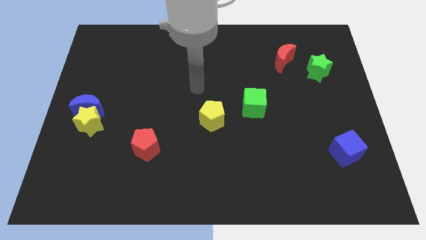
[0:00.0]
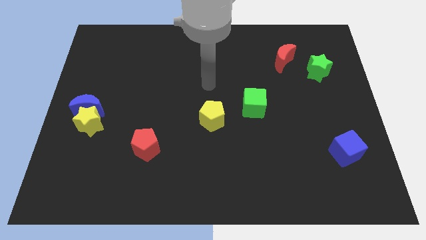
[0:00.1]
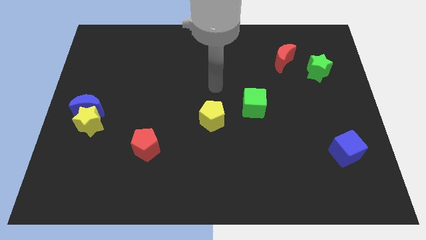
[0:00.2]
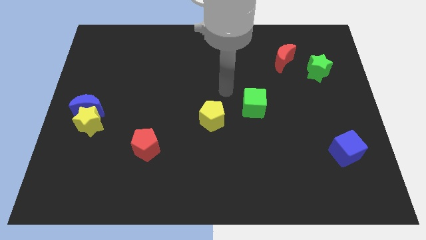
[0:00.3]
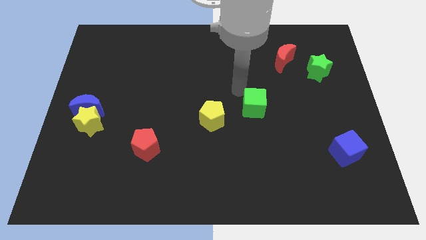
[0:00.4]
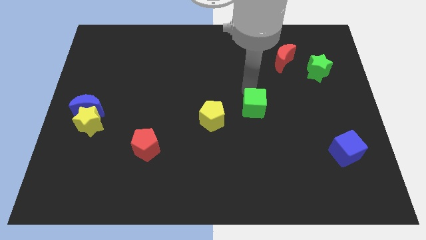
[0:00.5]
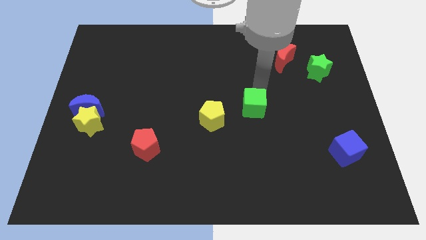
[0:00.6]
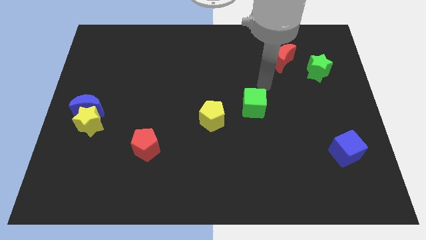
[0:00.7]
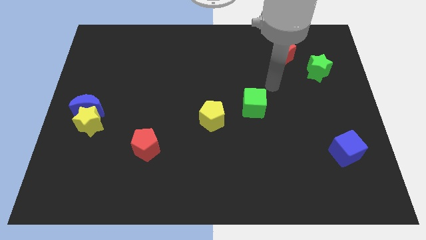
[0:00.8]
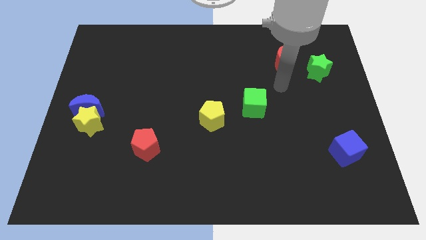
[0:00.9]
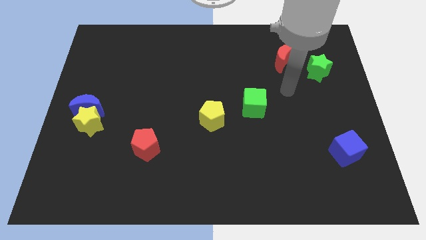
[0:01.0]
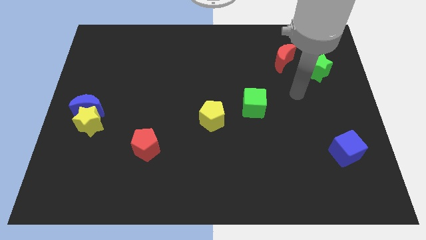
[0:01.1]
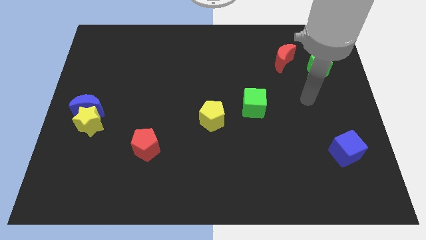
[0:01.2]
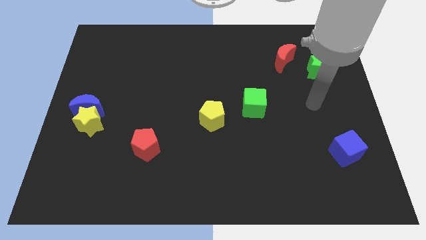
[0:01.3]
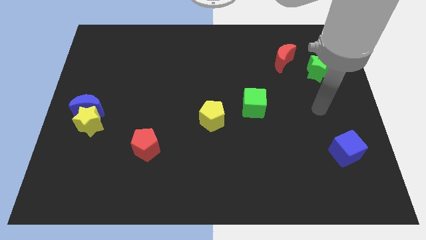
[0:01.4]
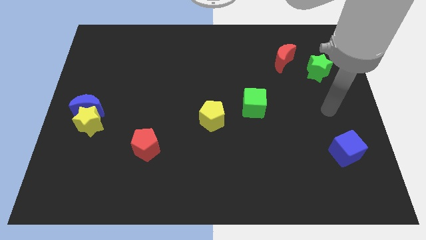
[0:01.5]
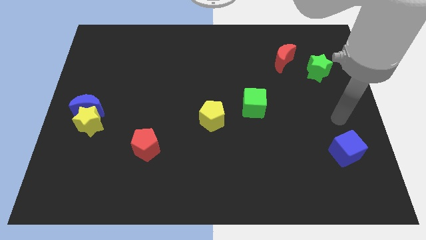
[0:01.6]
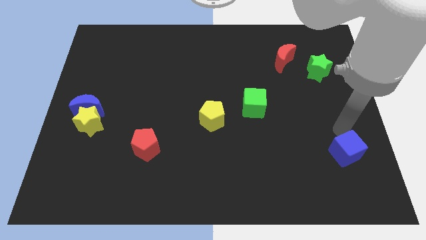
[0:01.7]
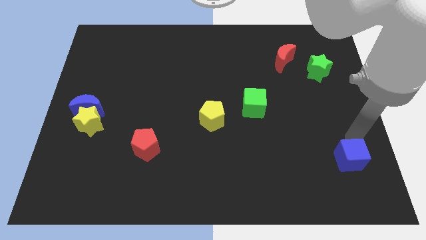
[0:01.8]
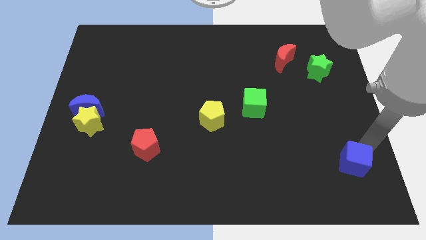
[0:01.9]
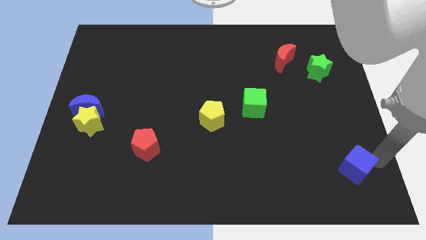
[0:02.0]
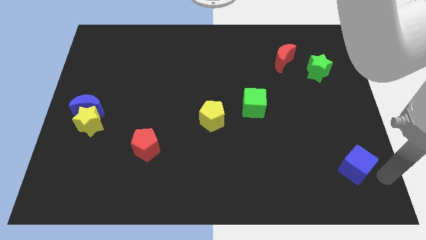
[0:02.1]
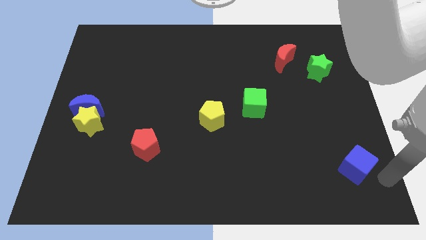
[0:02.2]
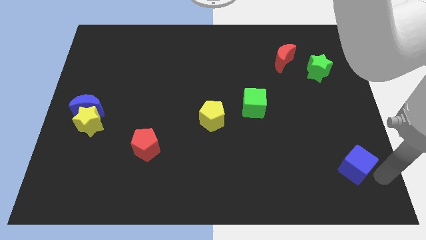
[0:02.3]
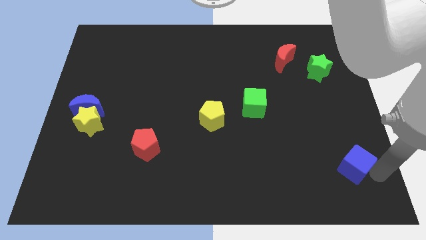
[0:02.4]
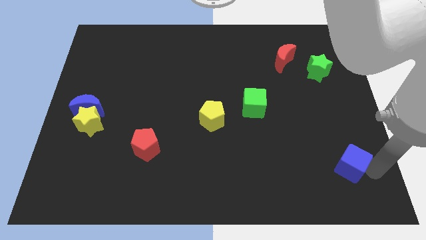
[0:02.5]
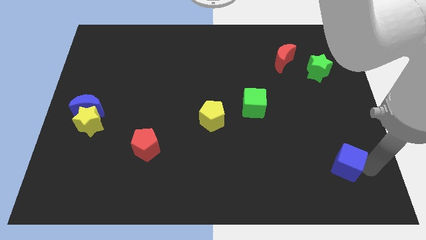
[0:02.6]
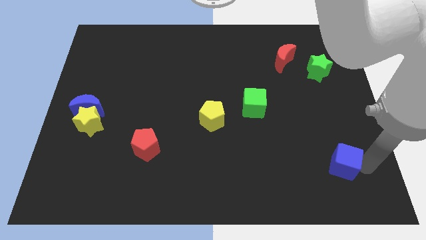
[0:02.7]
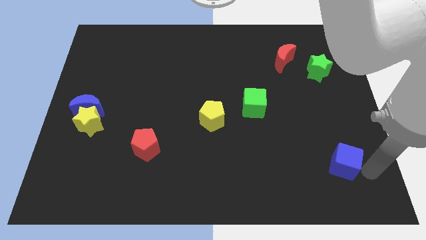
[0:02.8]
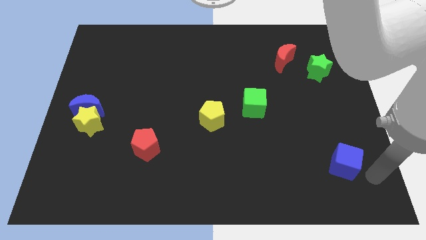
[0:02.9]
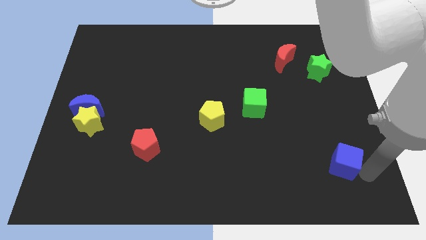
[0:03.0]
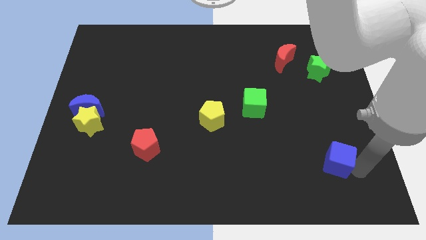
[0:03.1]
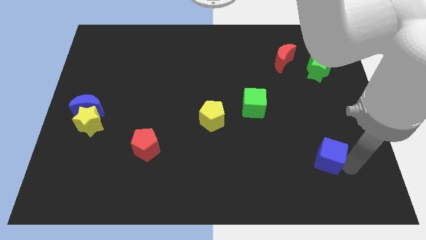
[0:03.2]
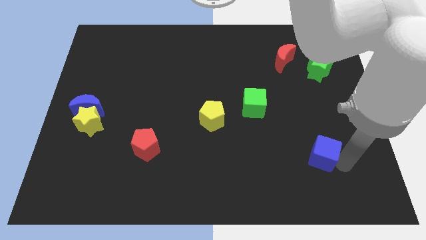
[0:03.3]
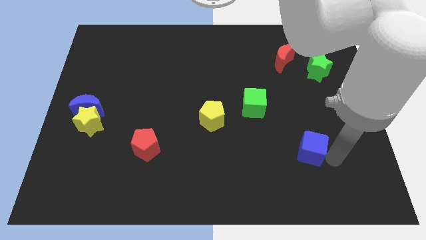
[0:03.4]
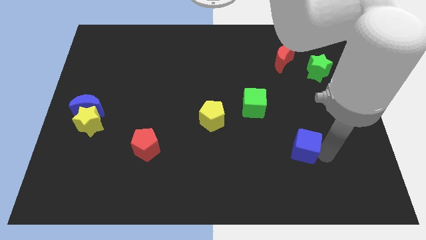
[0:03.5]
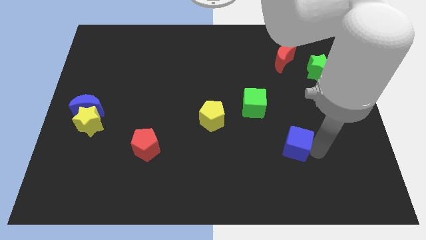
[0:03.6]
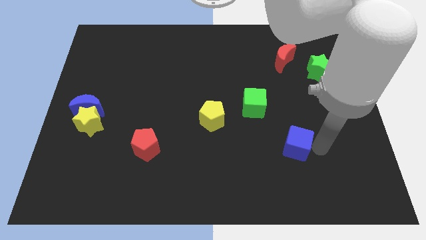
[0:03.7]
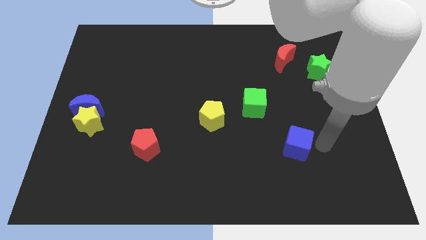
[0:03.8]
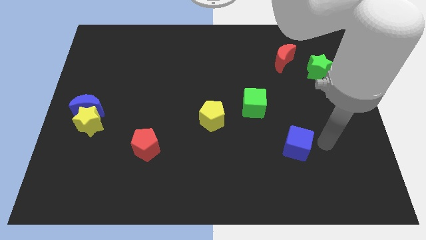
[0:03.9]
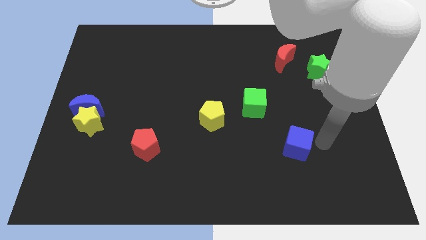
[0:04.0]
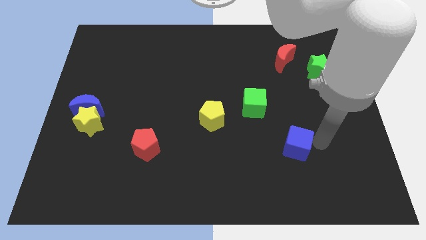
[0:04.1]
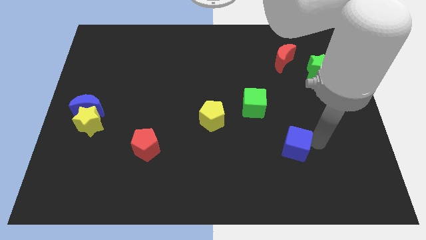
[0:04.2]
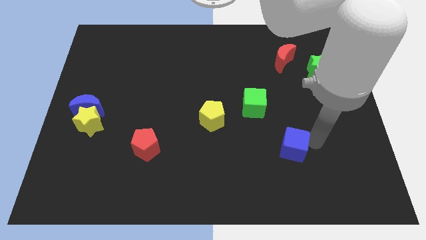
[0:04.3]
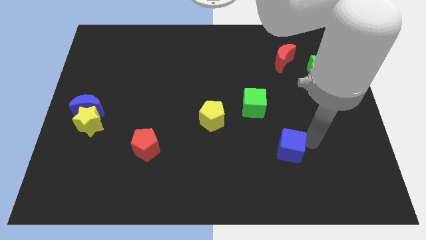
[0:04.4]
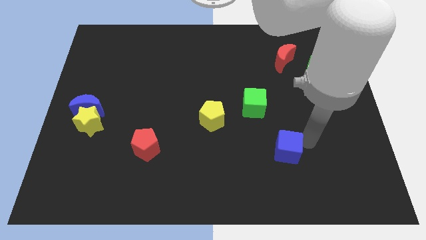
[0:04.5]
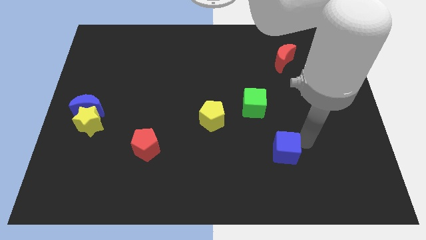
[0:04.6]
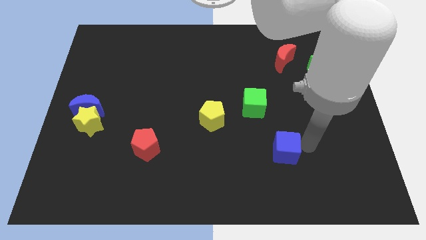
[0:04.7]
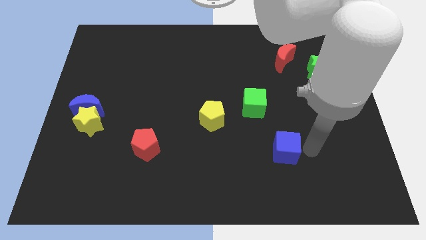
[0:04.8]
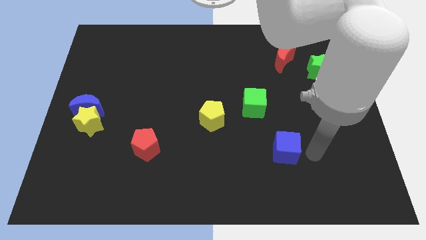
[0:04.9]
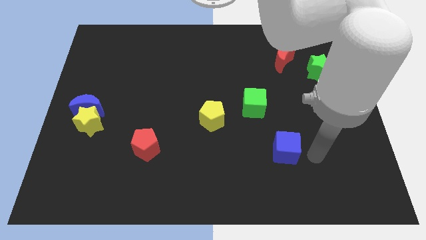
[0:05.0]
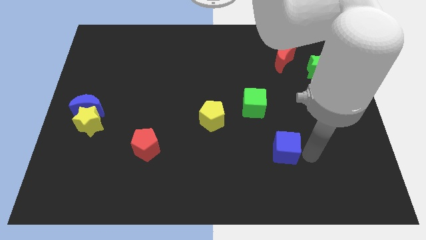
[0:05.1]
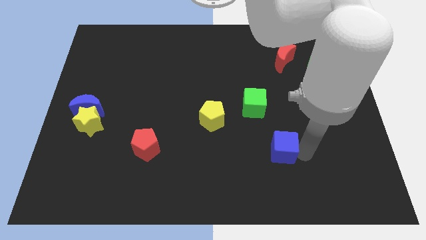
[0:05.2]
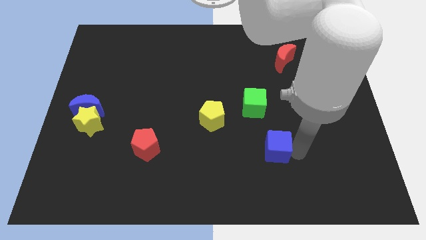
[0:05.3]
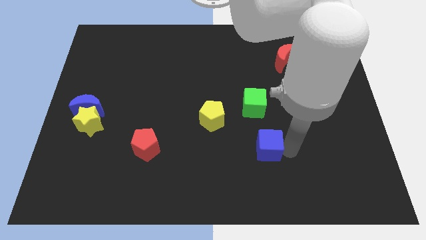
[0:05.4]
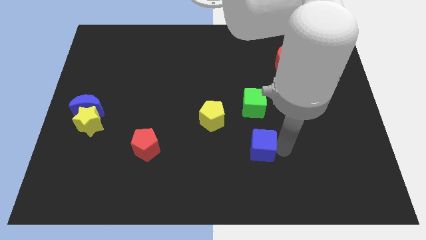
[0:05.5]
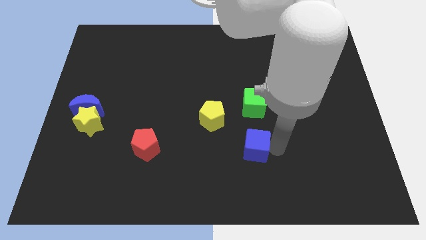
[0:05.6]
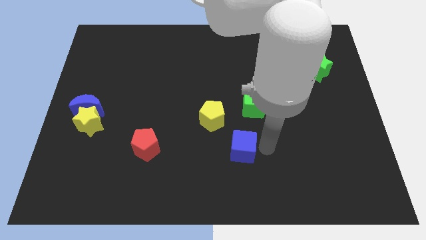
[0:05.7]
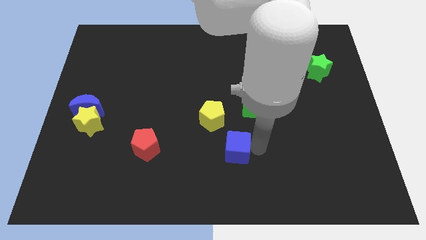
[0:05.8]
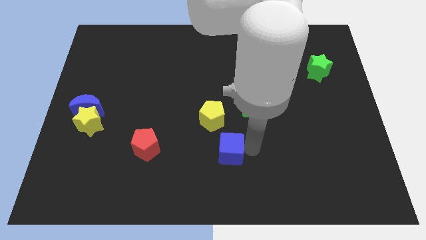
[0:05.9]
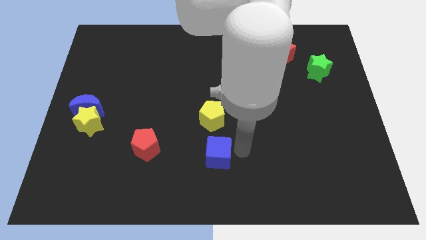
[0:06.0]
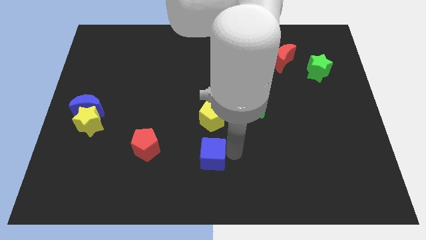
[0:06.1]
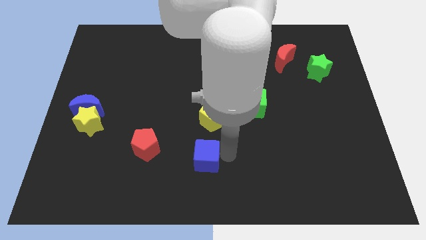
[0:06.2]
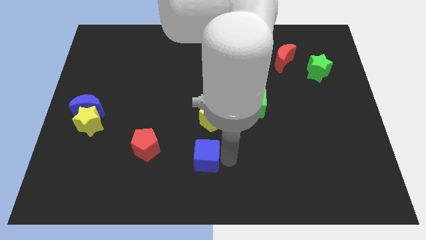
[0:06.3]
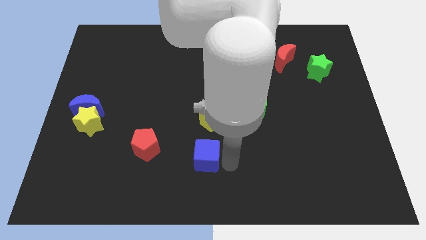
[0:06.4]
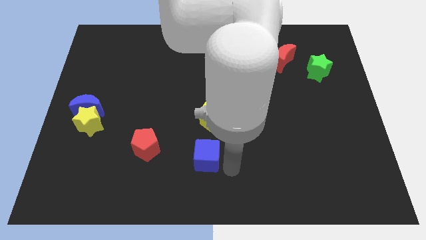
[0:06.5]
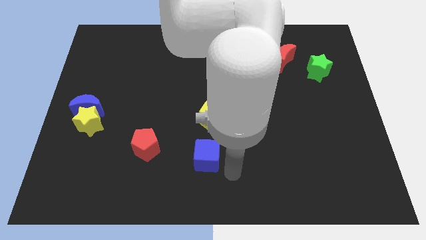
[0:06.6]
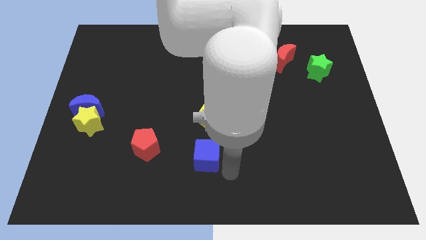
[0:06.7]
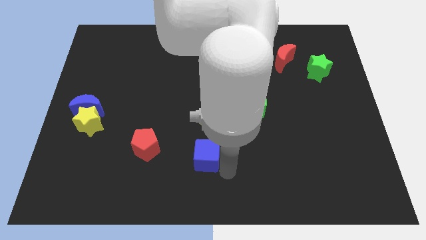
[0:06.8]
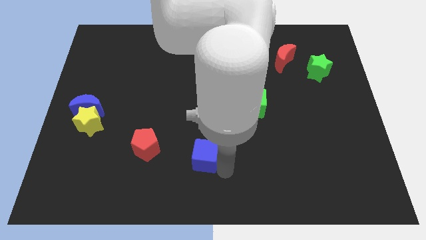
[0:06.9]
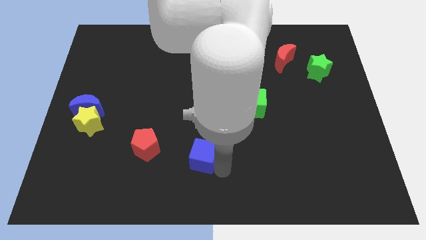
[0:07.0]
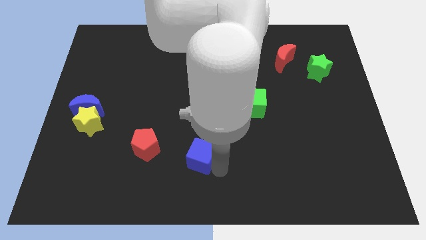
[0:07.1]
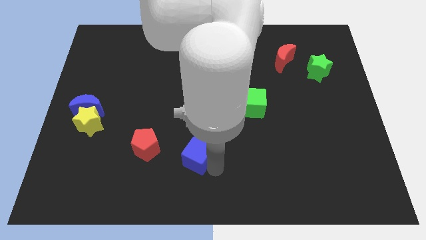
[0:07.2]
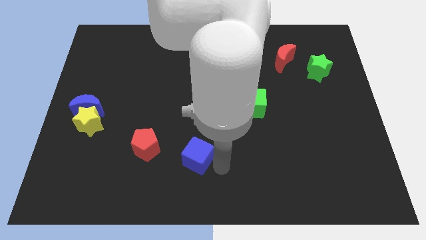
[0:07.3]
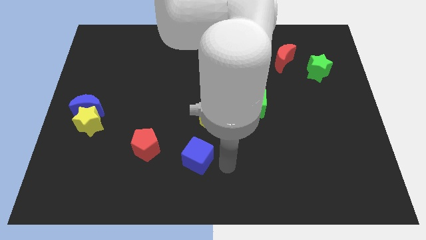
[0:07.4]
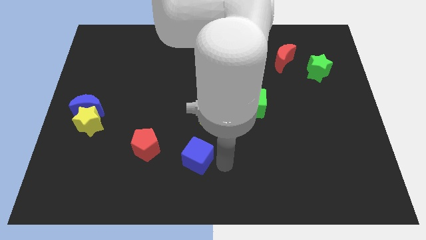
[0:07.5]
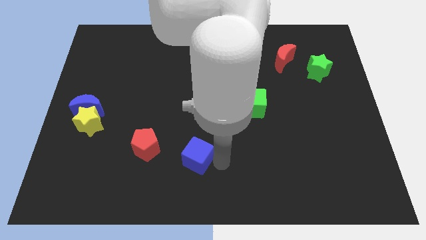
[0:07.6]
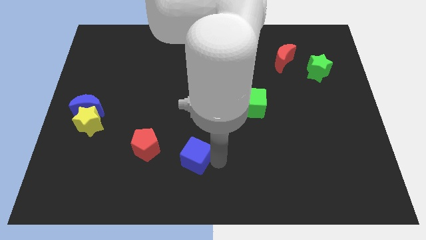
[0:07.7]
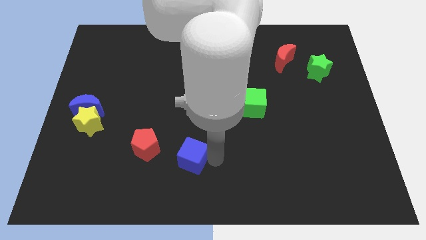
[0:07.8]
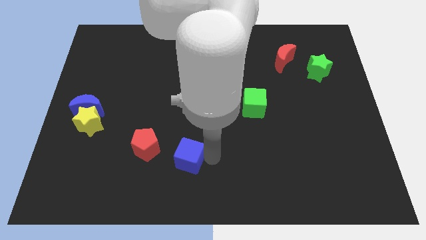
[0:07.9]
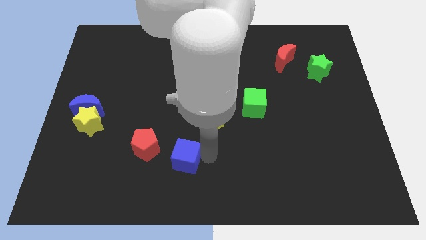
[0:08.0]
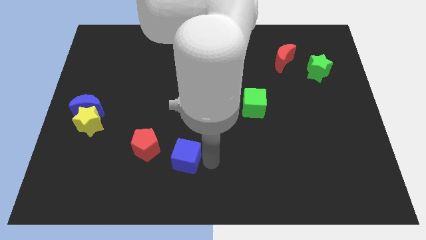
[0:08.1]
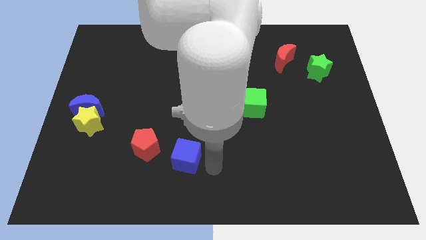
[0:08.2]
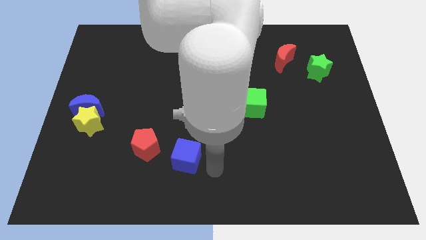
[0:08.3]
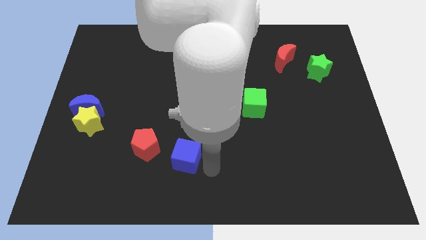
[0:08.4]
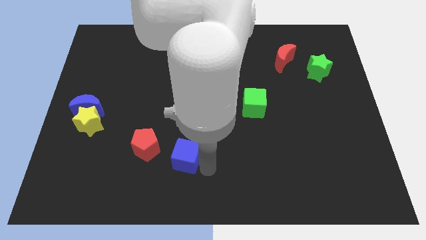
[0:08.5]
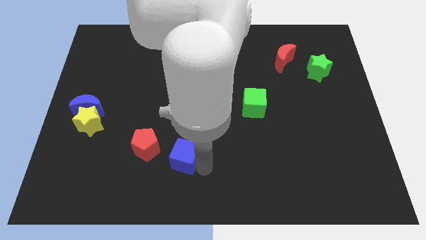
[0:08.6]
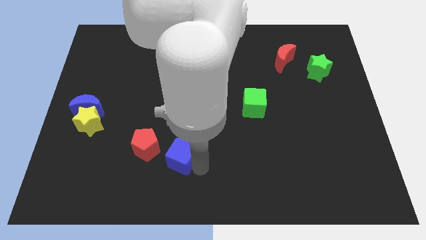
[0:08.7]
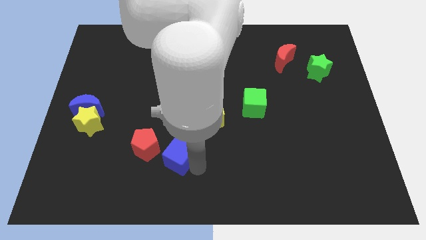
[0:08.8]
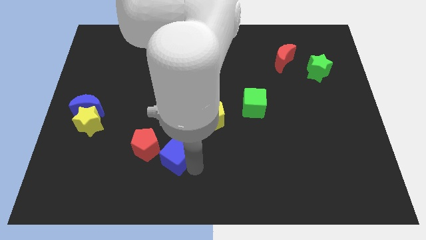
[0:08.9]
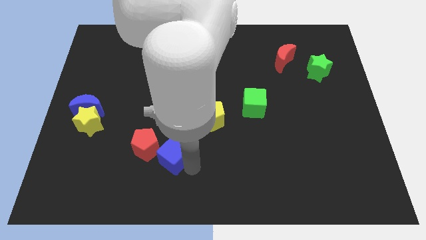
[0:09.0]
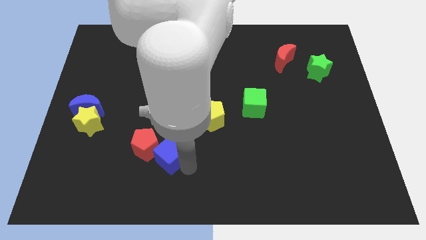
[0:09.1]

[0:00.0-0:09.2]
push the blue cube towards the red pentagon
